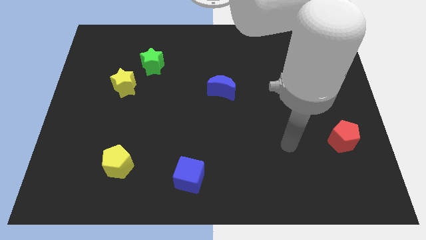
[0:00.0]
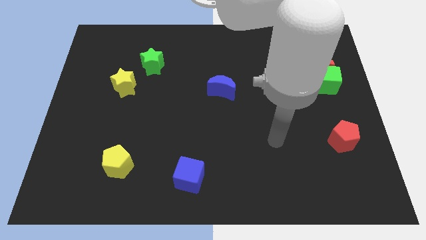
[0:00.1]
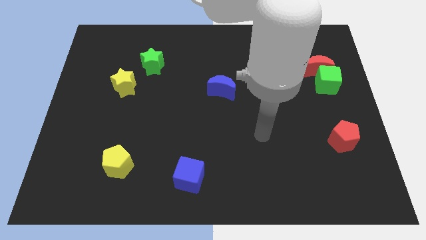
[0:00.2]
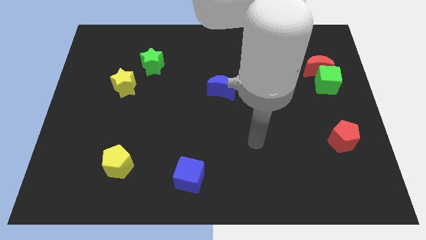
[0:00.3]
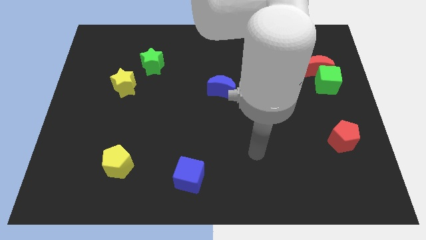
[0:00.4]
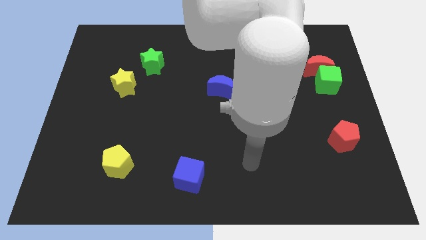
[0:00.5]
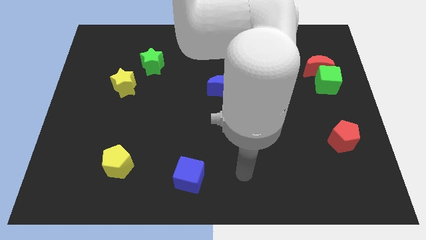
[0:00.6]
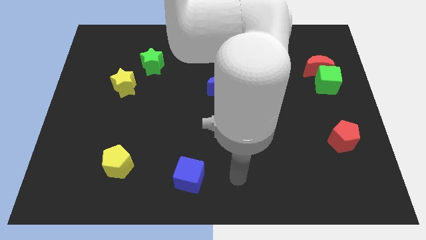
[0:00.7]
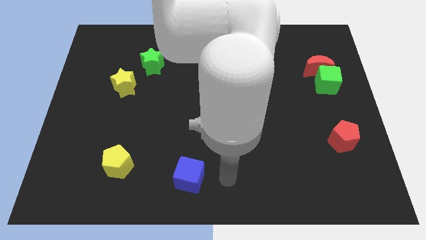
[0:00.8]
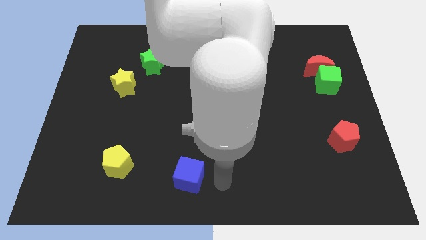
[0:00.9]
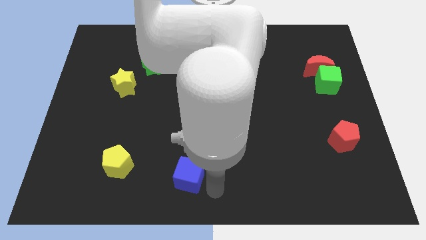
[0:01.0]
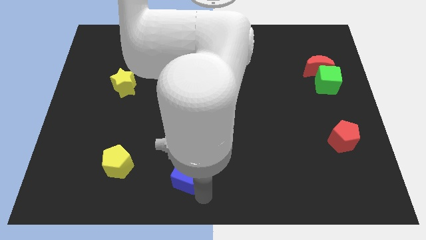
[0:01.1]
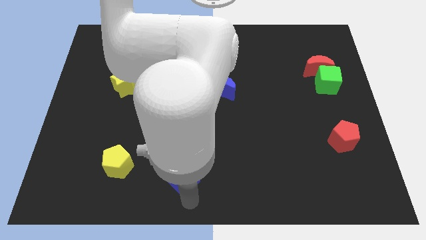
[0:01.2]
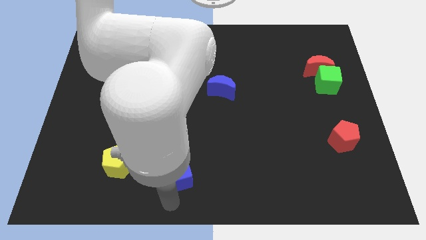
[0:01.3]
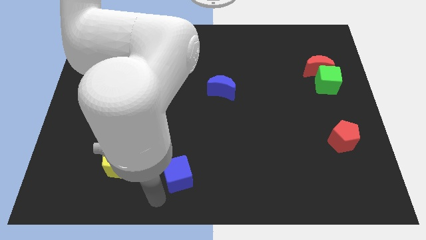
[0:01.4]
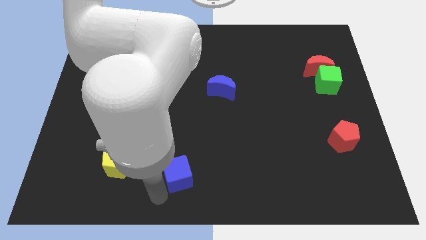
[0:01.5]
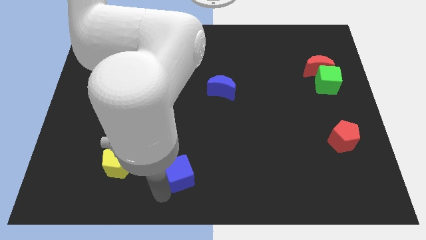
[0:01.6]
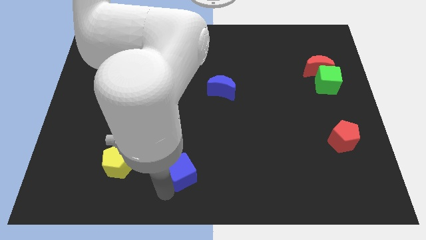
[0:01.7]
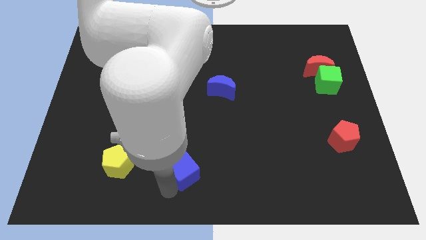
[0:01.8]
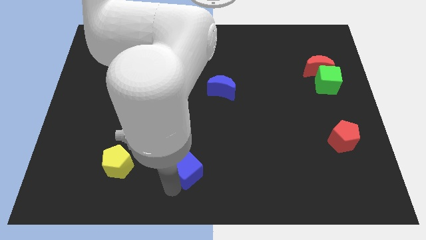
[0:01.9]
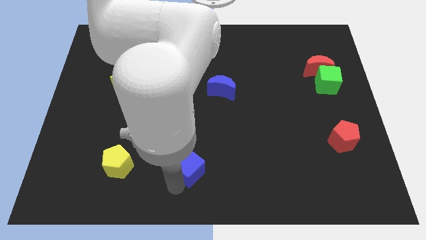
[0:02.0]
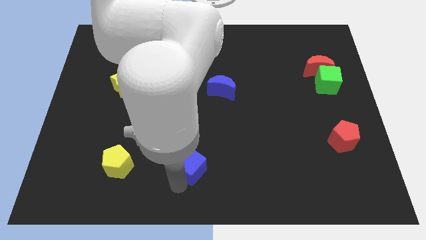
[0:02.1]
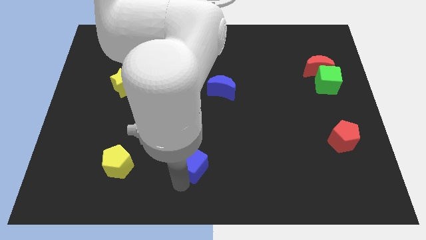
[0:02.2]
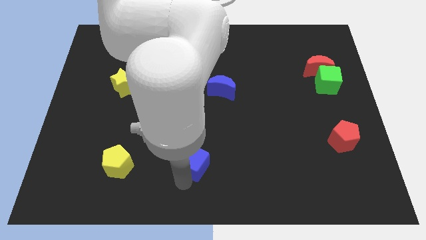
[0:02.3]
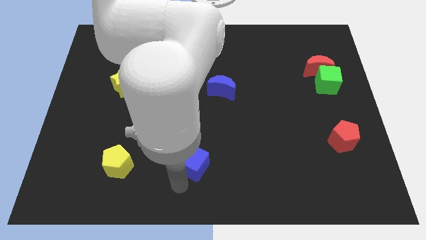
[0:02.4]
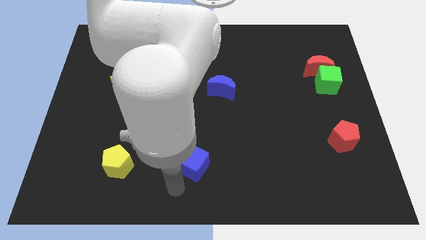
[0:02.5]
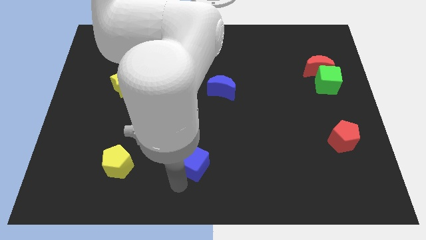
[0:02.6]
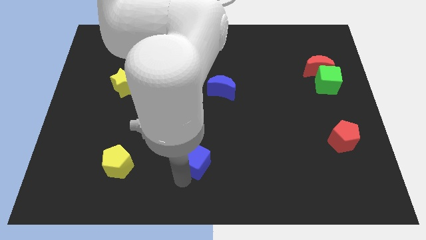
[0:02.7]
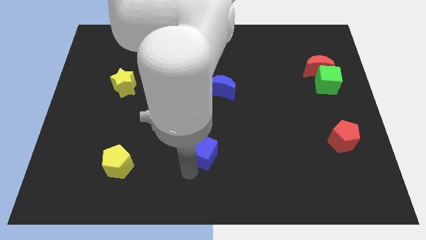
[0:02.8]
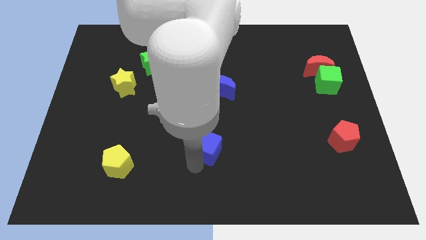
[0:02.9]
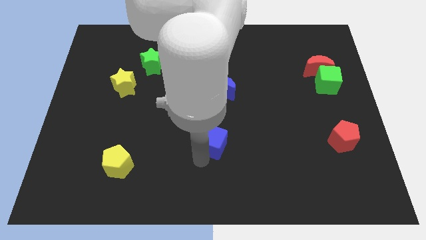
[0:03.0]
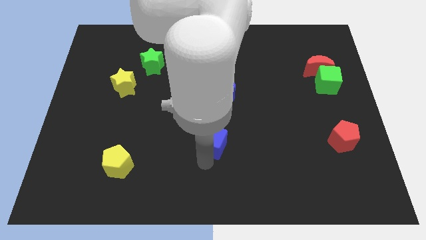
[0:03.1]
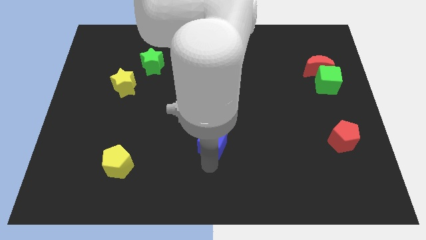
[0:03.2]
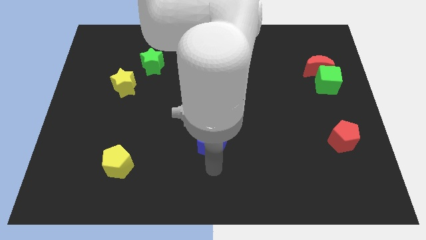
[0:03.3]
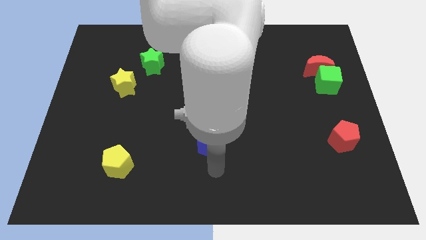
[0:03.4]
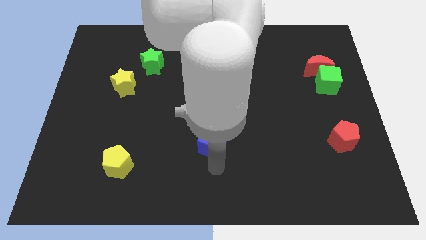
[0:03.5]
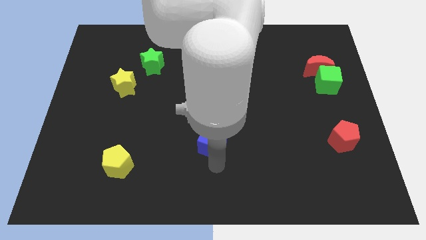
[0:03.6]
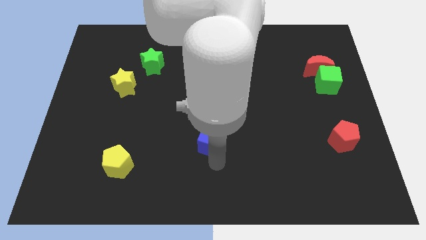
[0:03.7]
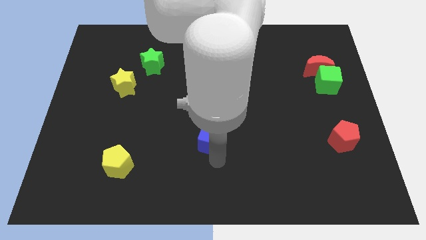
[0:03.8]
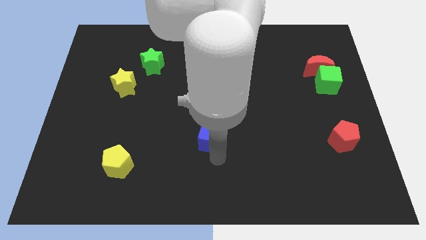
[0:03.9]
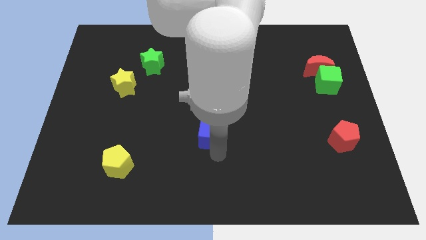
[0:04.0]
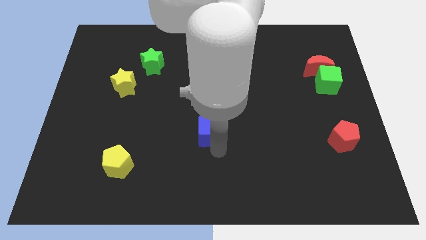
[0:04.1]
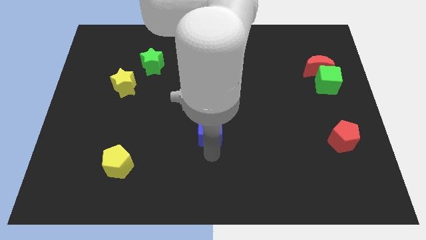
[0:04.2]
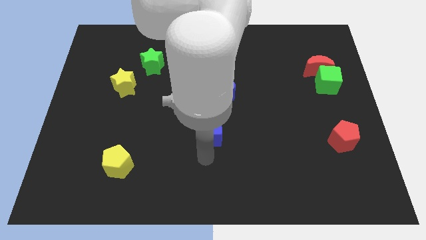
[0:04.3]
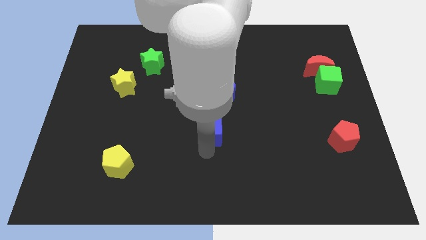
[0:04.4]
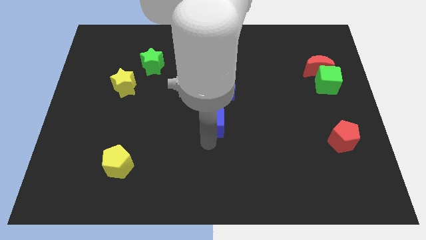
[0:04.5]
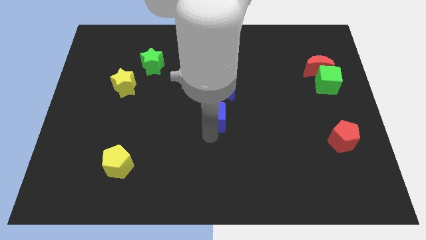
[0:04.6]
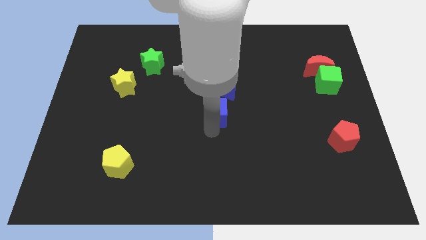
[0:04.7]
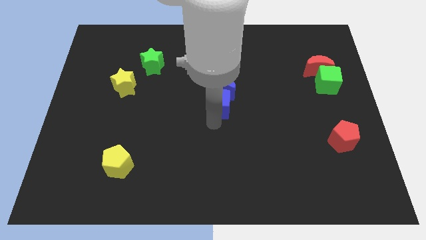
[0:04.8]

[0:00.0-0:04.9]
slide the blue cube to the blue moon

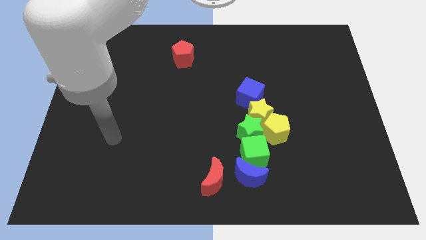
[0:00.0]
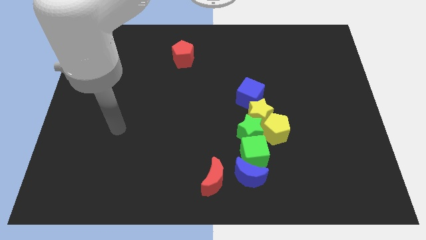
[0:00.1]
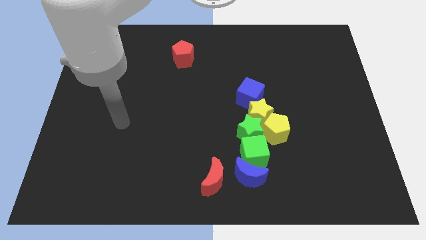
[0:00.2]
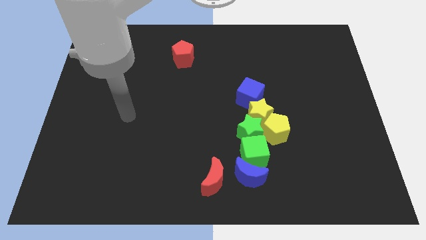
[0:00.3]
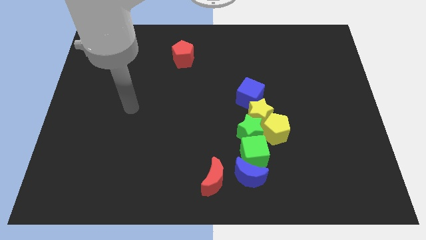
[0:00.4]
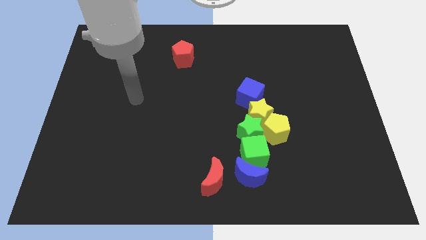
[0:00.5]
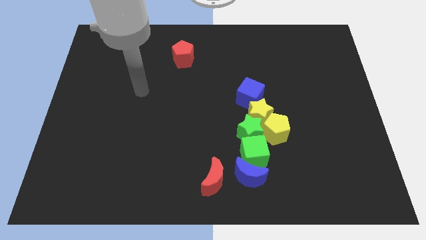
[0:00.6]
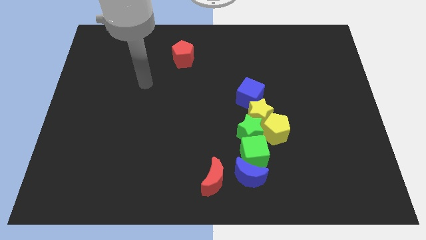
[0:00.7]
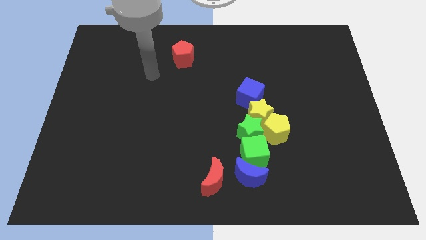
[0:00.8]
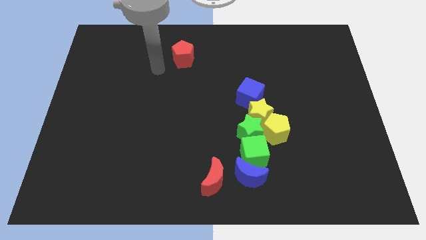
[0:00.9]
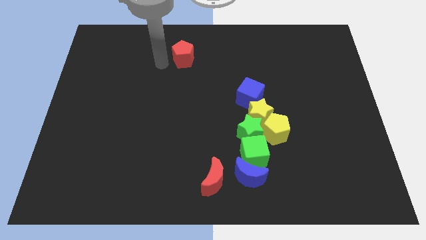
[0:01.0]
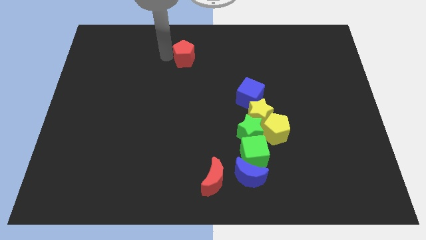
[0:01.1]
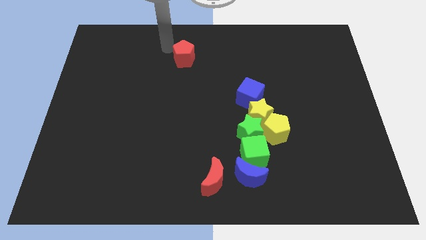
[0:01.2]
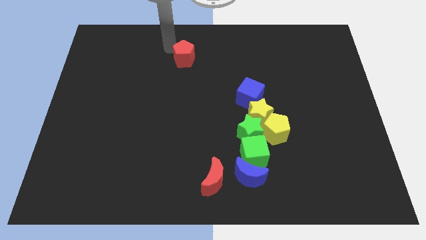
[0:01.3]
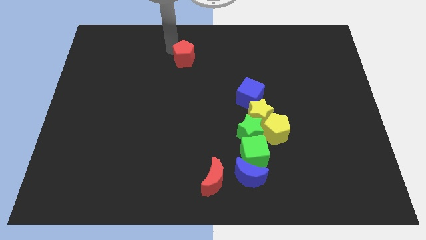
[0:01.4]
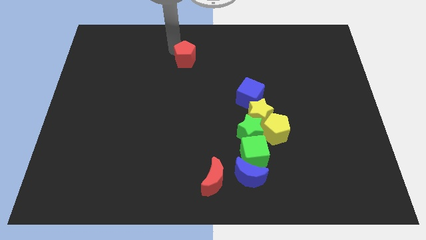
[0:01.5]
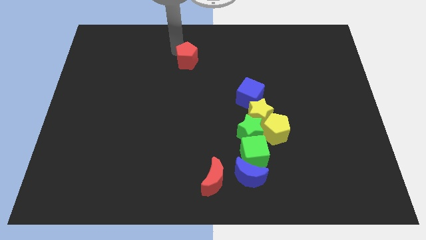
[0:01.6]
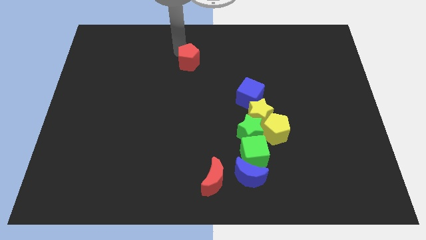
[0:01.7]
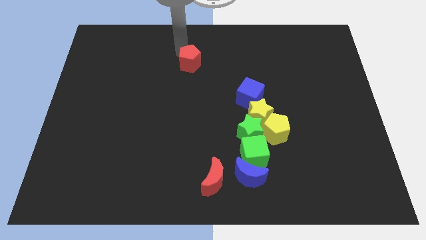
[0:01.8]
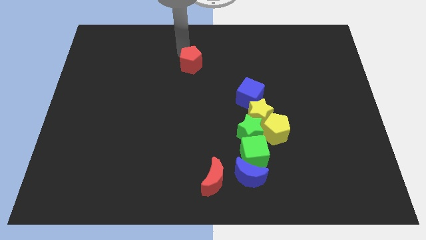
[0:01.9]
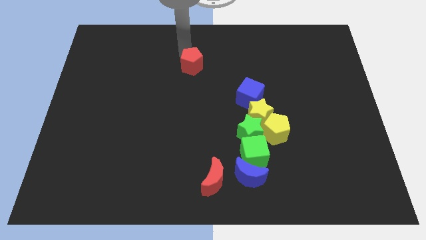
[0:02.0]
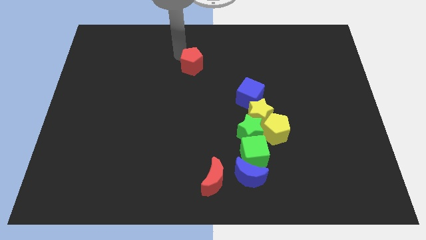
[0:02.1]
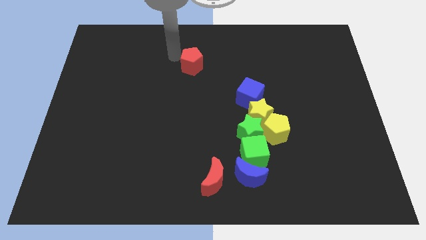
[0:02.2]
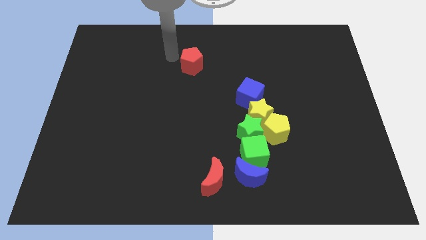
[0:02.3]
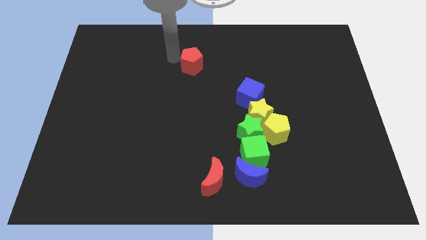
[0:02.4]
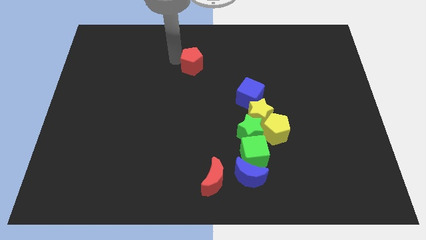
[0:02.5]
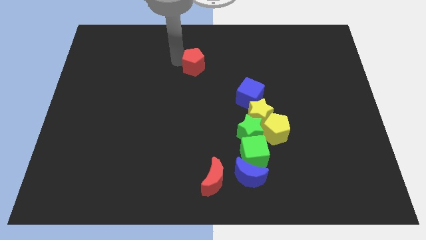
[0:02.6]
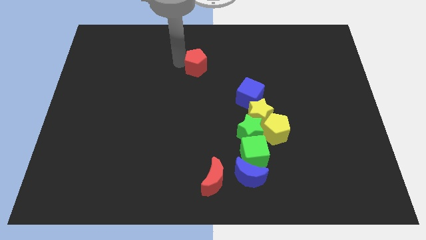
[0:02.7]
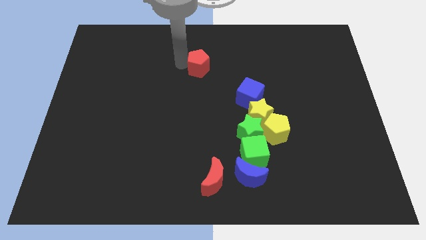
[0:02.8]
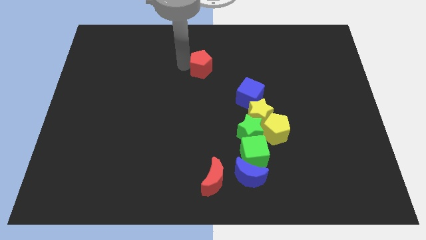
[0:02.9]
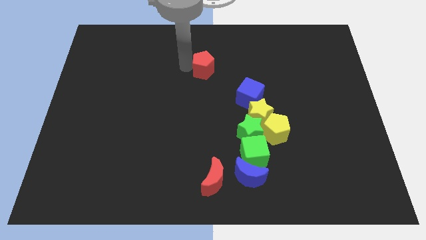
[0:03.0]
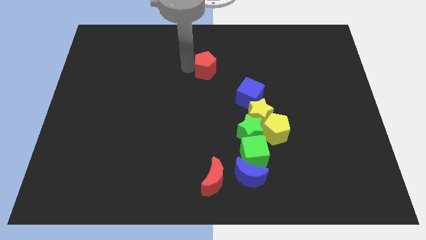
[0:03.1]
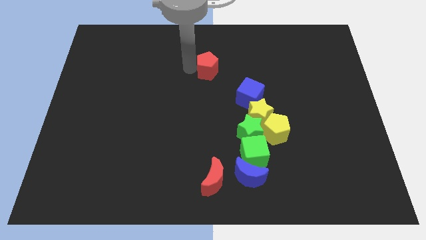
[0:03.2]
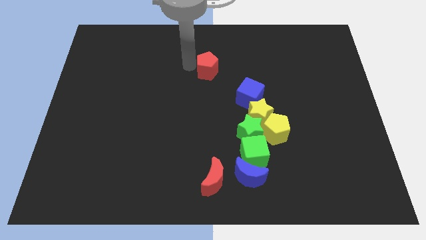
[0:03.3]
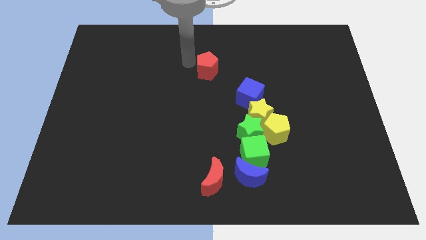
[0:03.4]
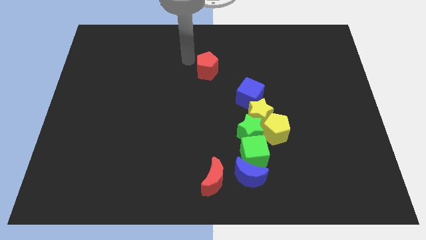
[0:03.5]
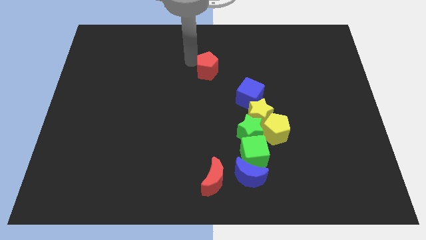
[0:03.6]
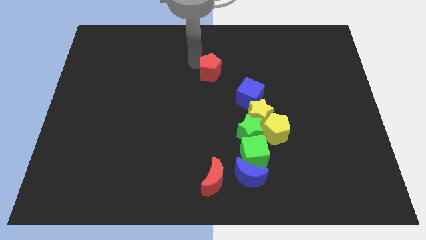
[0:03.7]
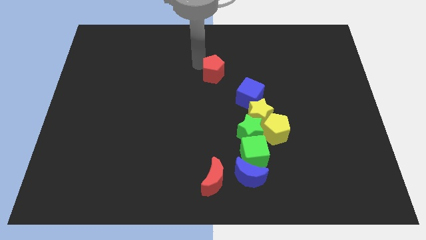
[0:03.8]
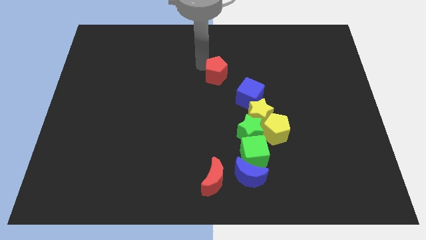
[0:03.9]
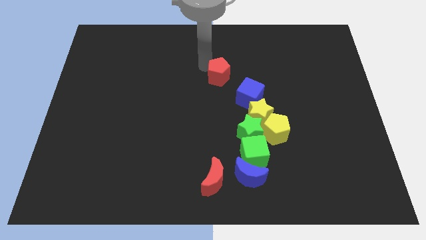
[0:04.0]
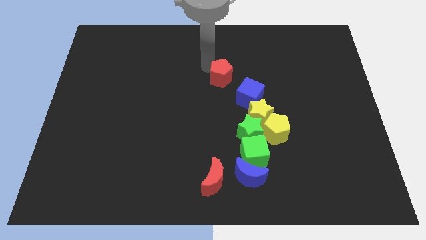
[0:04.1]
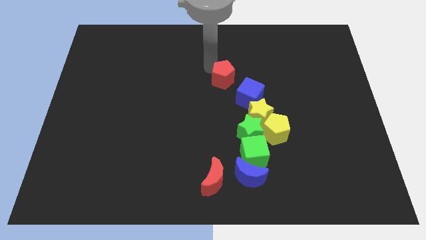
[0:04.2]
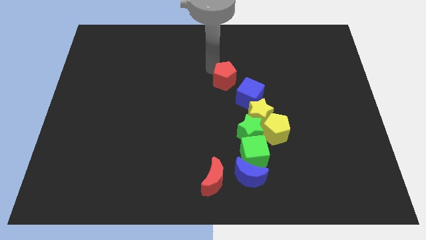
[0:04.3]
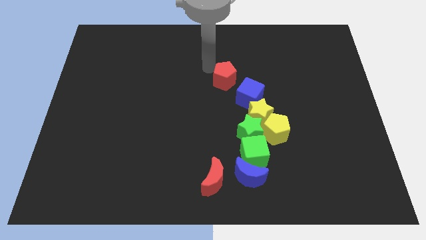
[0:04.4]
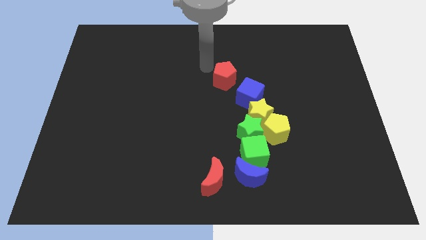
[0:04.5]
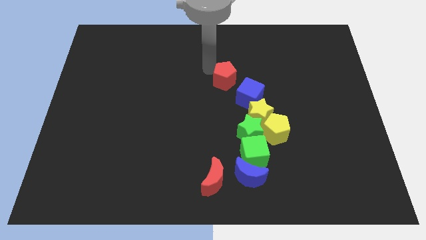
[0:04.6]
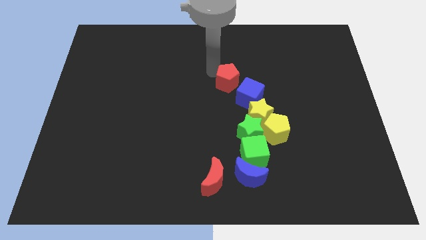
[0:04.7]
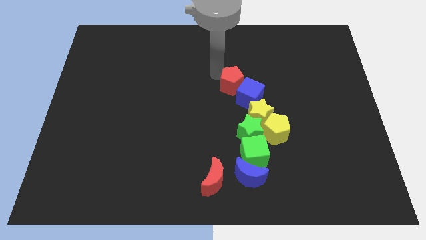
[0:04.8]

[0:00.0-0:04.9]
slide the red pentagon towards the blue cube
